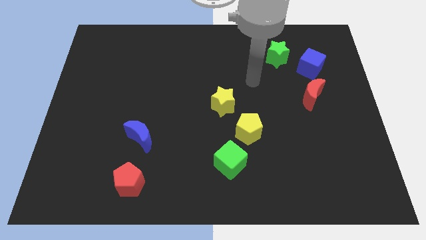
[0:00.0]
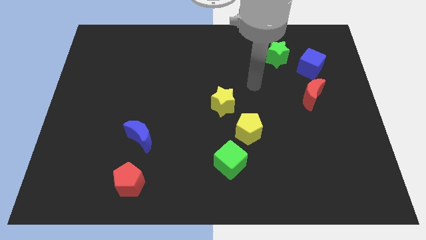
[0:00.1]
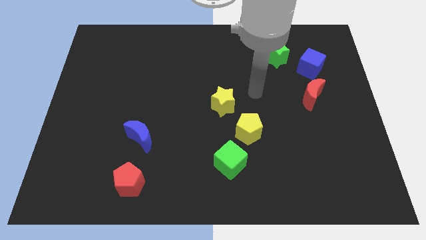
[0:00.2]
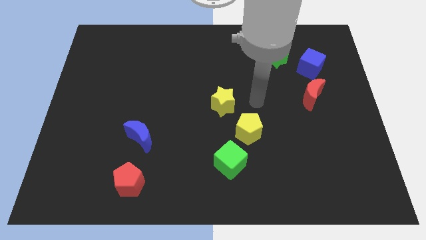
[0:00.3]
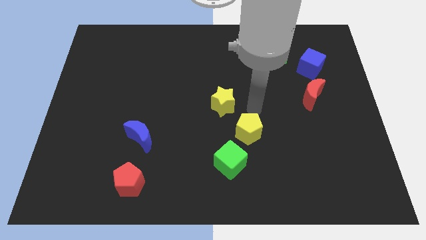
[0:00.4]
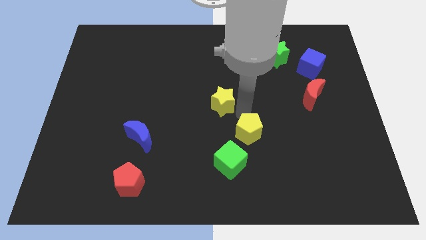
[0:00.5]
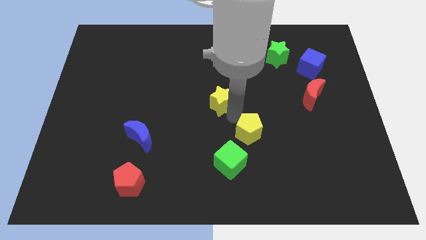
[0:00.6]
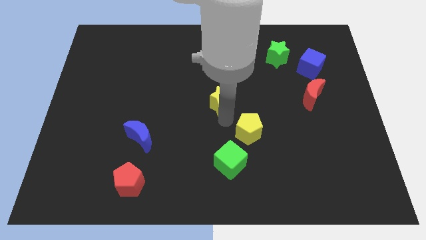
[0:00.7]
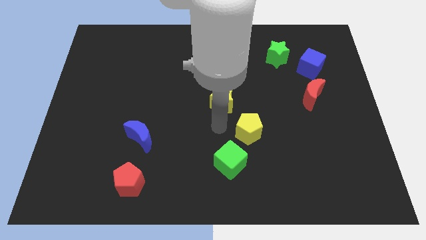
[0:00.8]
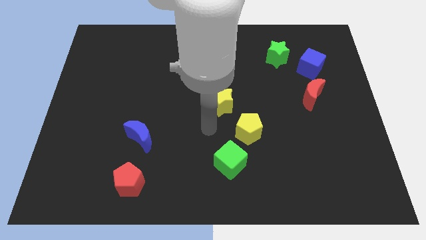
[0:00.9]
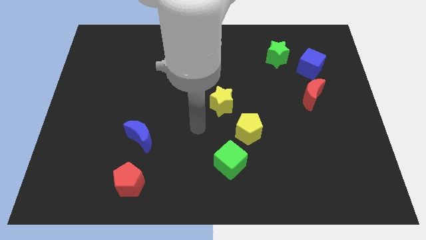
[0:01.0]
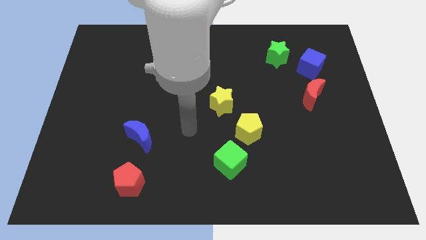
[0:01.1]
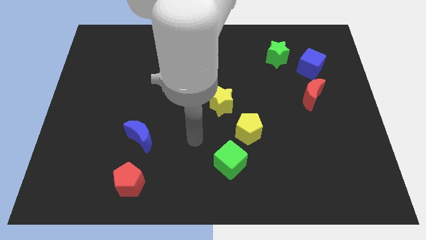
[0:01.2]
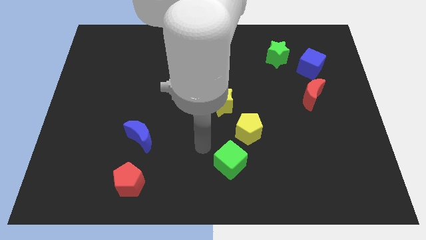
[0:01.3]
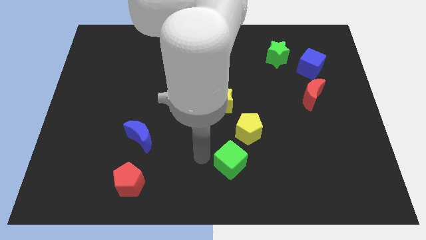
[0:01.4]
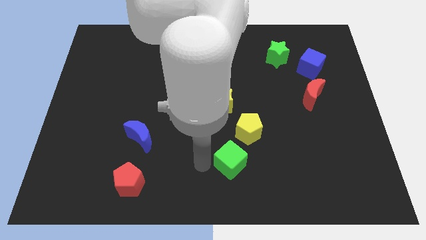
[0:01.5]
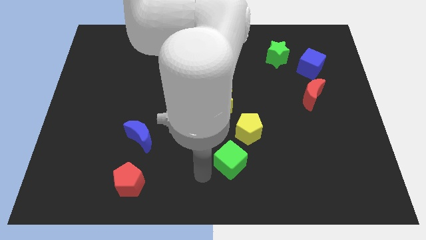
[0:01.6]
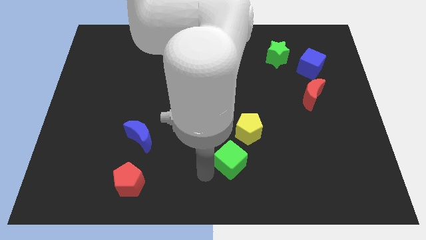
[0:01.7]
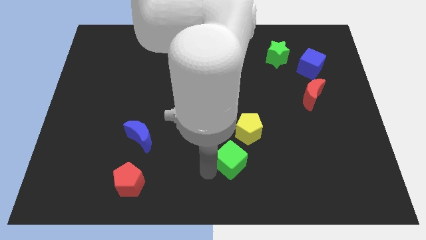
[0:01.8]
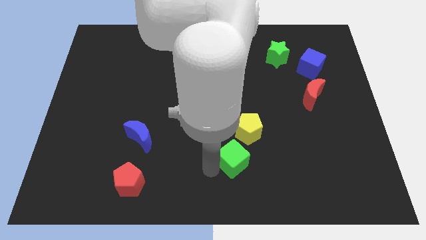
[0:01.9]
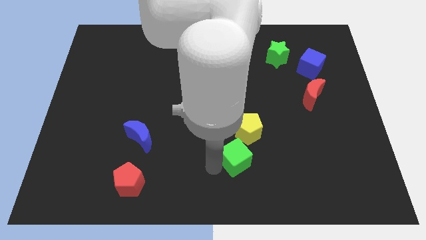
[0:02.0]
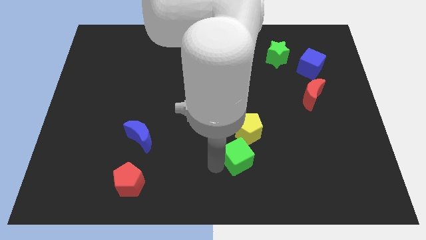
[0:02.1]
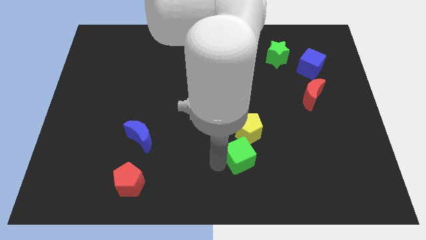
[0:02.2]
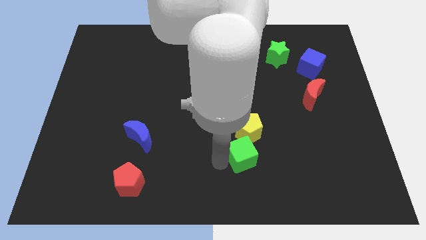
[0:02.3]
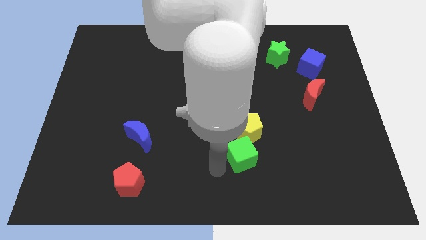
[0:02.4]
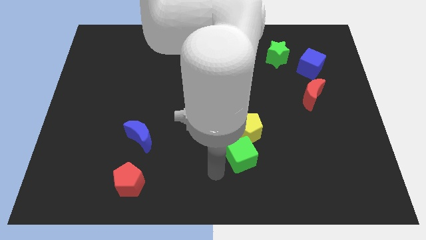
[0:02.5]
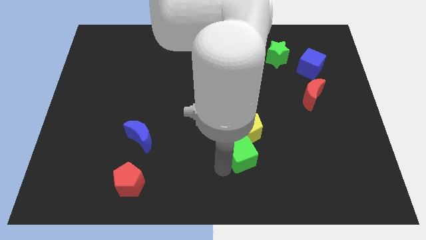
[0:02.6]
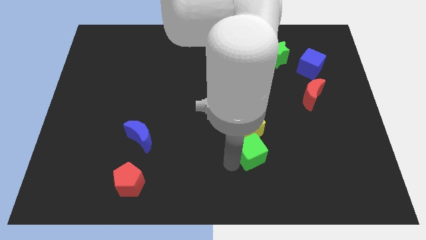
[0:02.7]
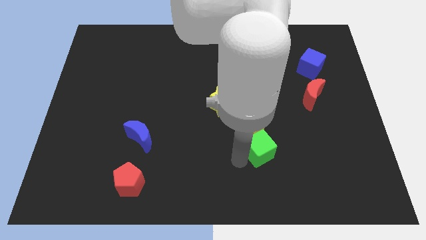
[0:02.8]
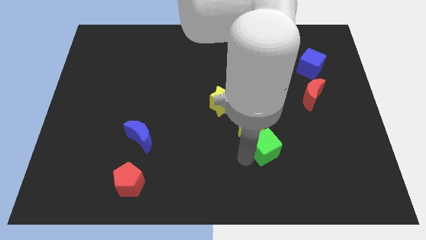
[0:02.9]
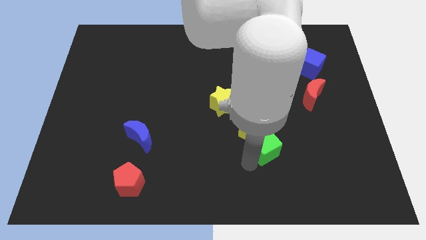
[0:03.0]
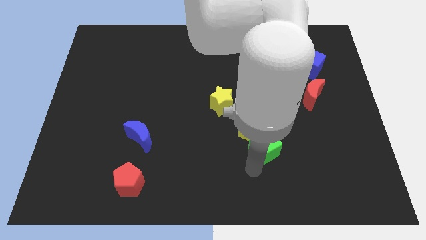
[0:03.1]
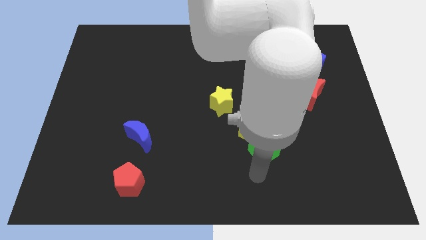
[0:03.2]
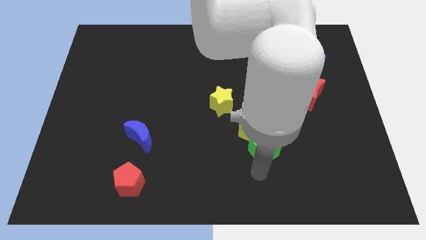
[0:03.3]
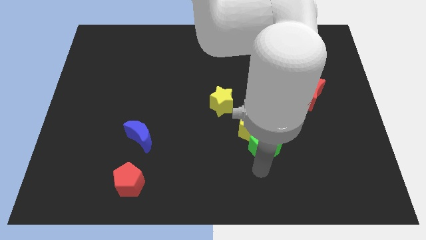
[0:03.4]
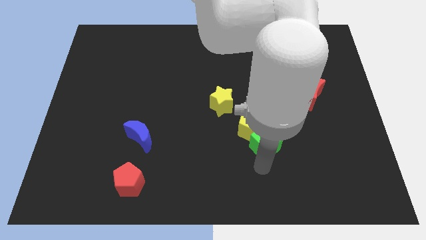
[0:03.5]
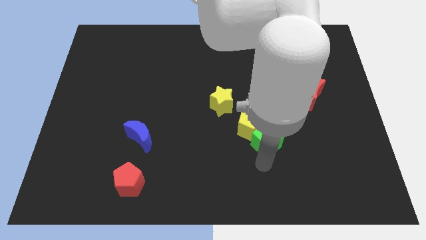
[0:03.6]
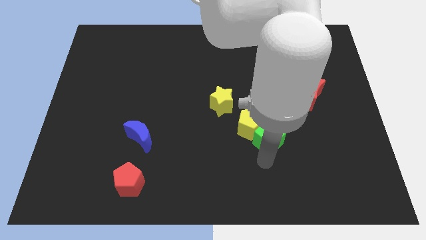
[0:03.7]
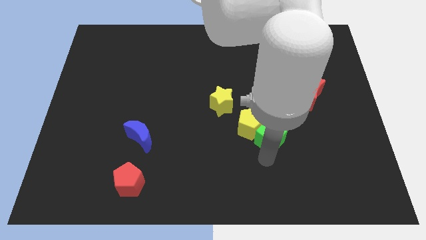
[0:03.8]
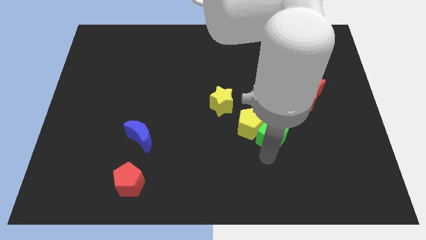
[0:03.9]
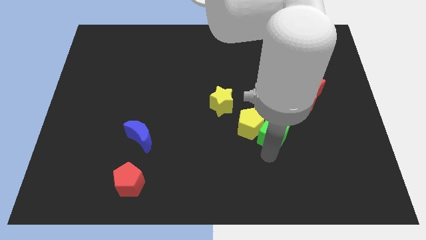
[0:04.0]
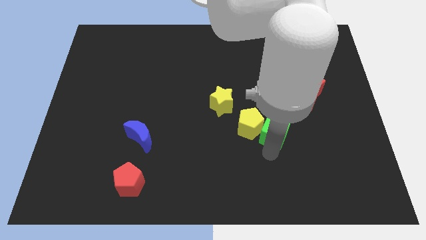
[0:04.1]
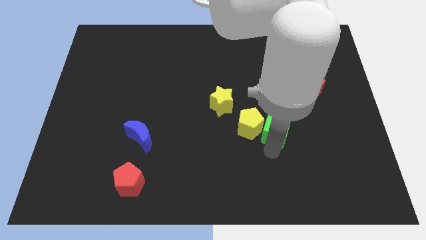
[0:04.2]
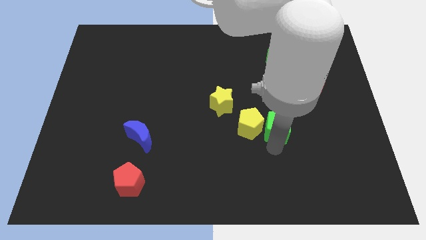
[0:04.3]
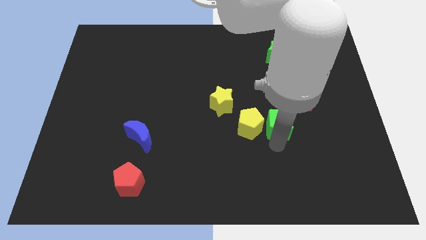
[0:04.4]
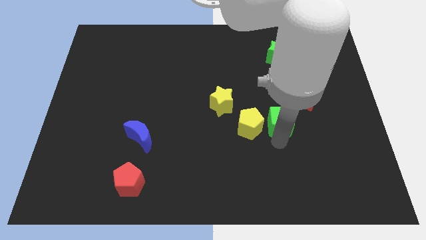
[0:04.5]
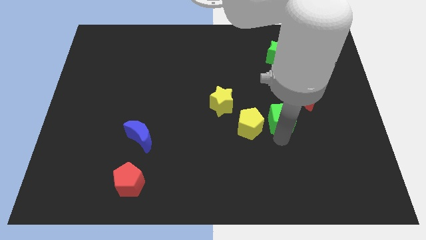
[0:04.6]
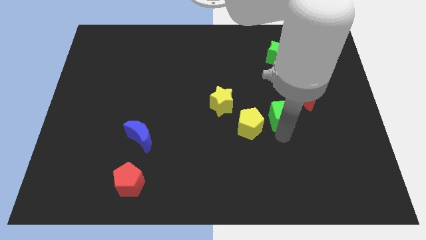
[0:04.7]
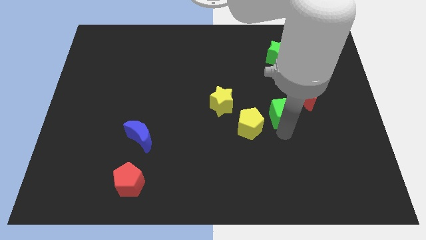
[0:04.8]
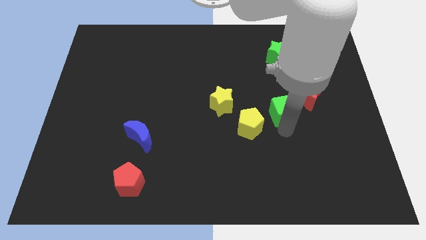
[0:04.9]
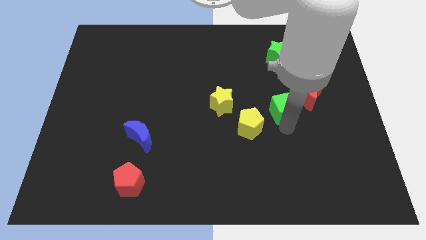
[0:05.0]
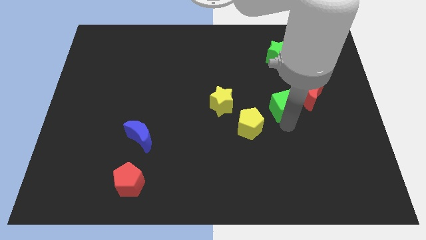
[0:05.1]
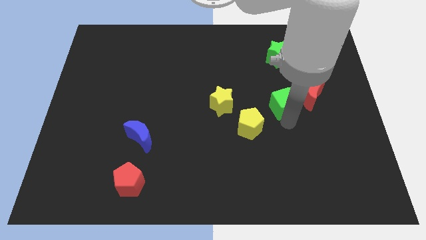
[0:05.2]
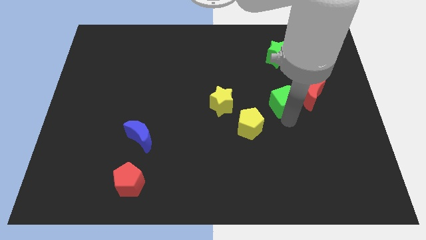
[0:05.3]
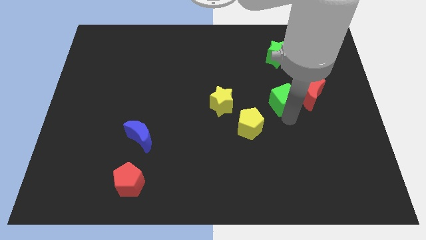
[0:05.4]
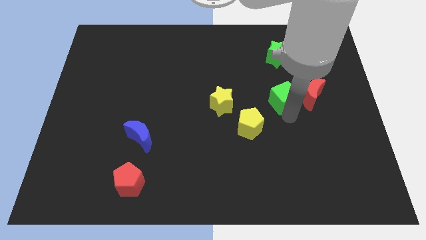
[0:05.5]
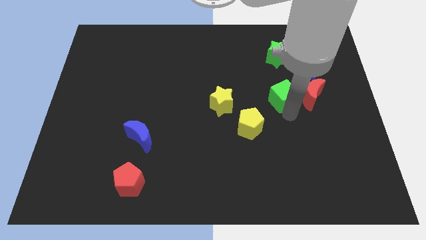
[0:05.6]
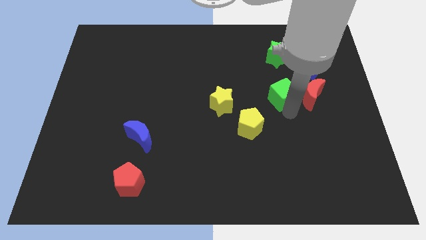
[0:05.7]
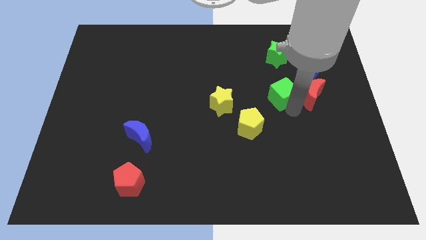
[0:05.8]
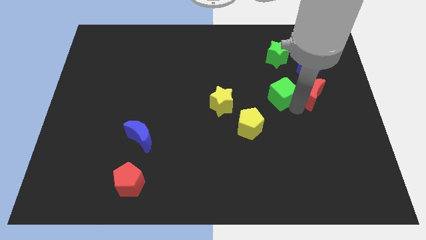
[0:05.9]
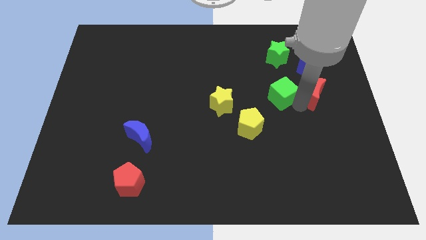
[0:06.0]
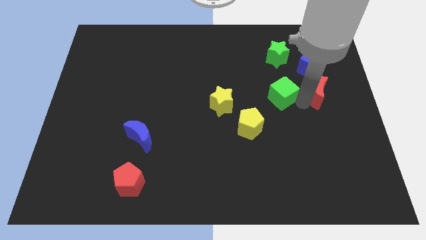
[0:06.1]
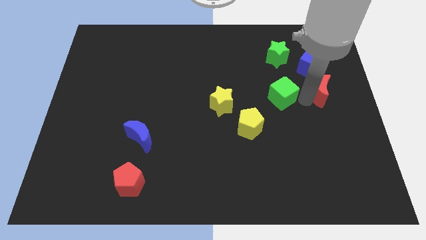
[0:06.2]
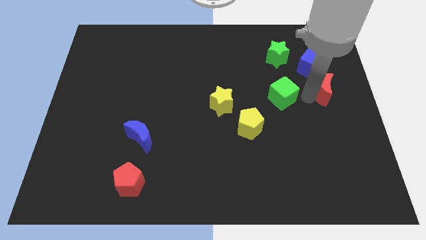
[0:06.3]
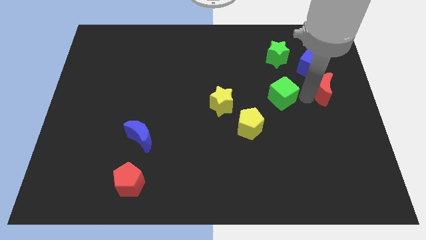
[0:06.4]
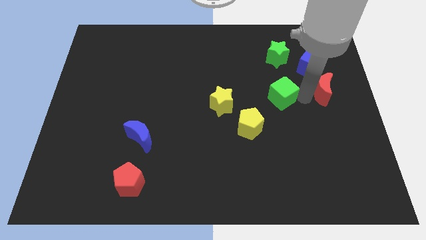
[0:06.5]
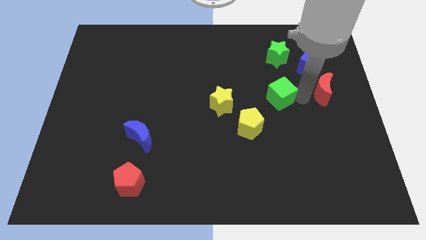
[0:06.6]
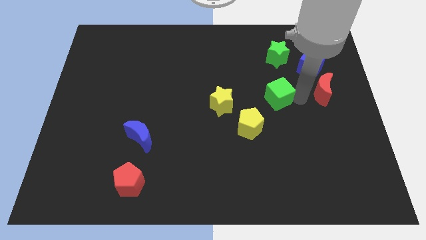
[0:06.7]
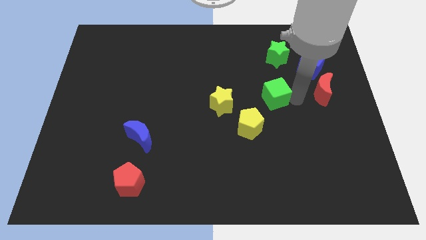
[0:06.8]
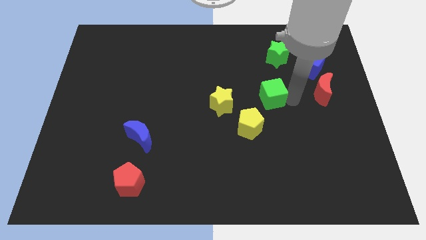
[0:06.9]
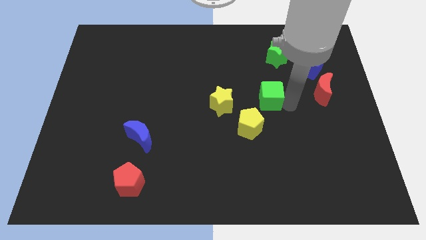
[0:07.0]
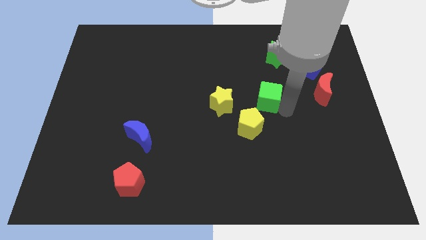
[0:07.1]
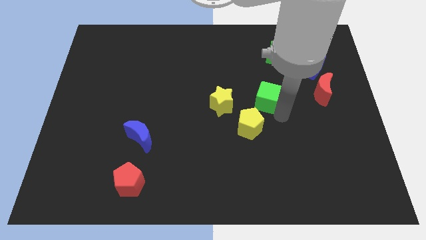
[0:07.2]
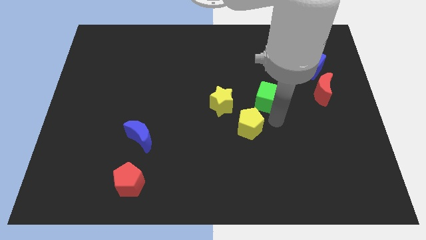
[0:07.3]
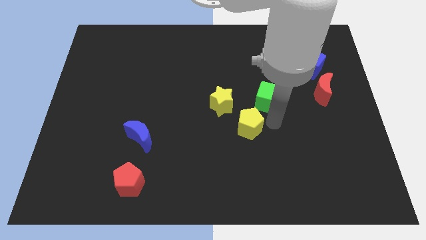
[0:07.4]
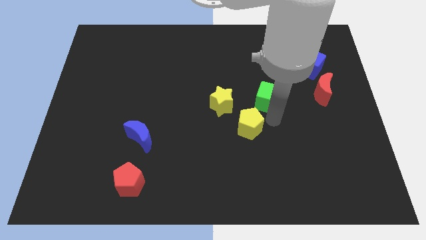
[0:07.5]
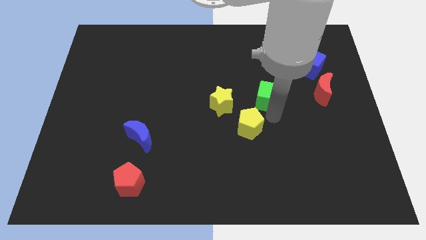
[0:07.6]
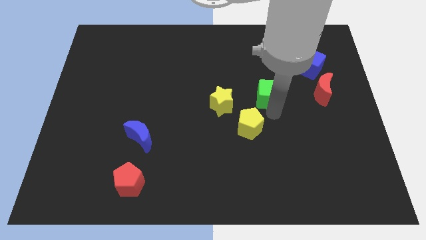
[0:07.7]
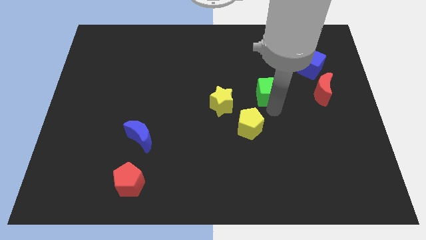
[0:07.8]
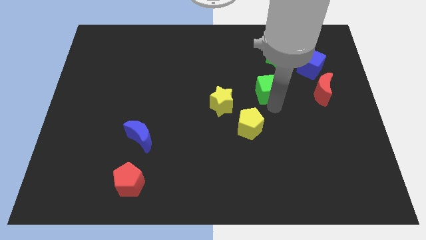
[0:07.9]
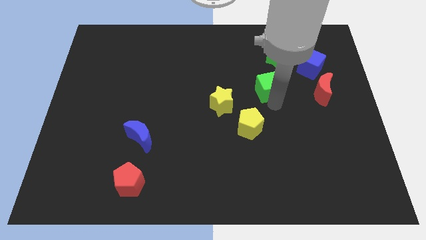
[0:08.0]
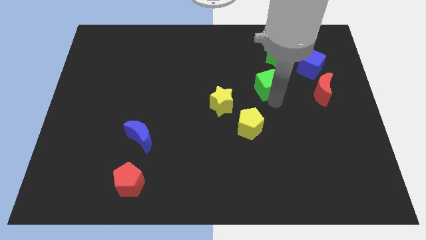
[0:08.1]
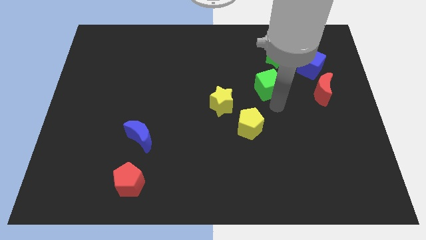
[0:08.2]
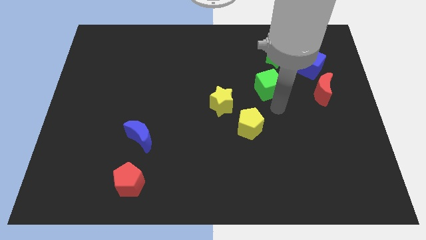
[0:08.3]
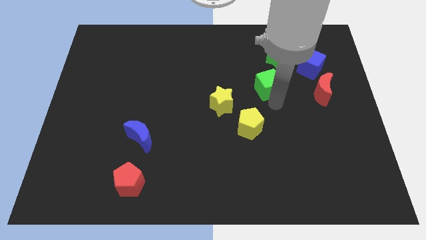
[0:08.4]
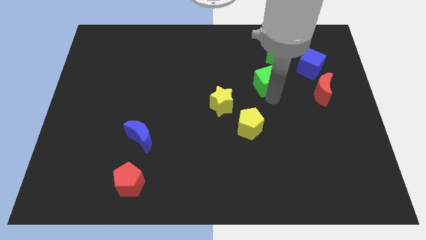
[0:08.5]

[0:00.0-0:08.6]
move the green cube to the bottom left of the green star
